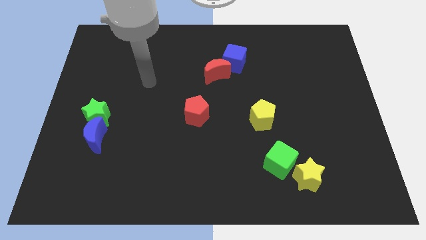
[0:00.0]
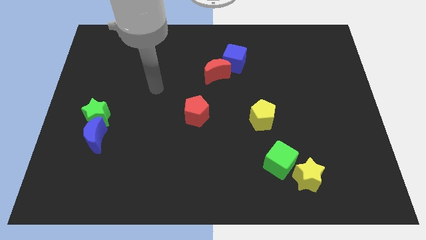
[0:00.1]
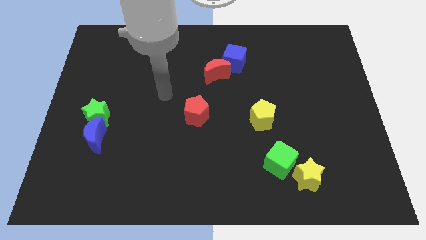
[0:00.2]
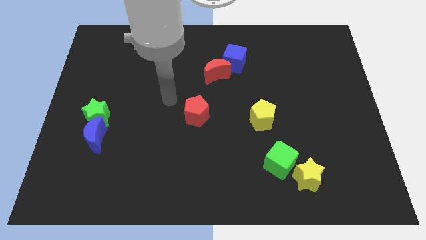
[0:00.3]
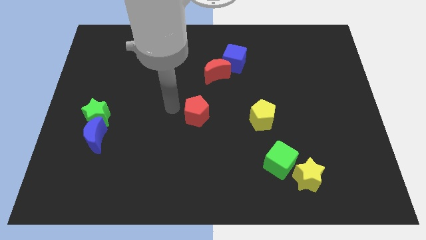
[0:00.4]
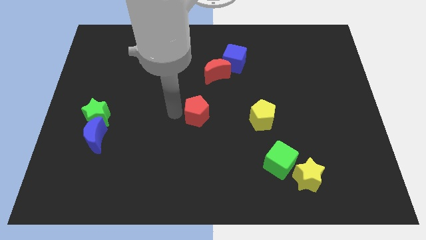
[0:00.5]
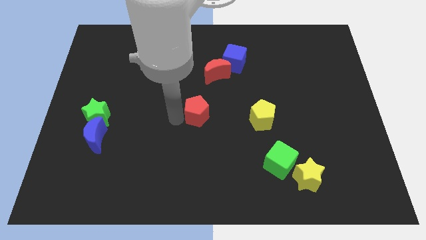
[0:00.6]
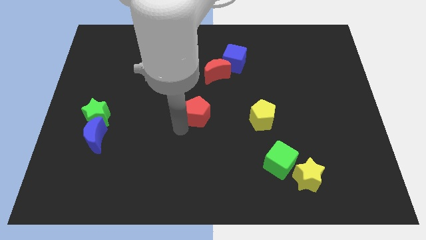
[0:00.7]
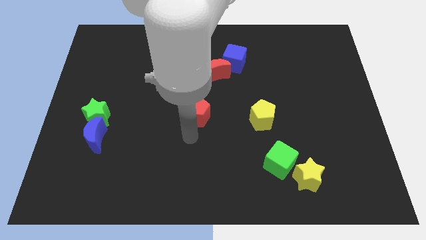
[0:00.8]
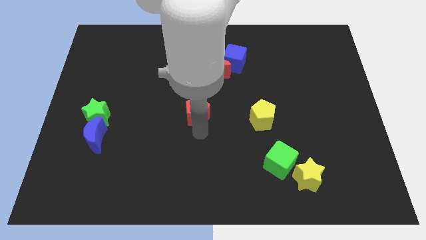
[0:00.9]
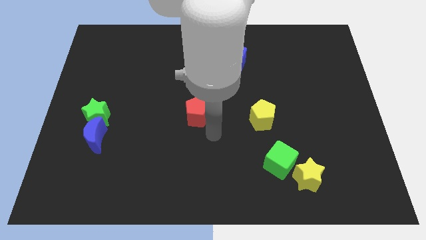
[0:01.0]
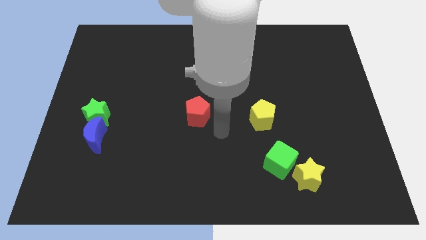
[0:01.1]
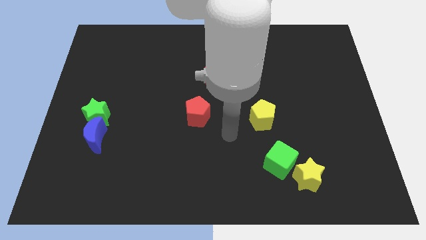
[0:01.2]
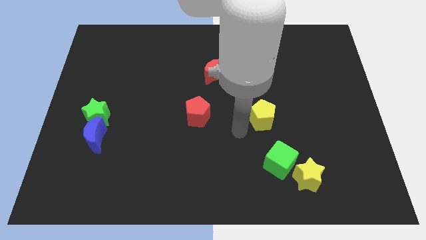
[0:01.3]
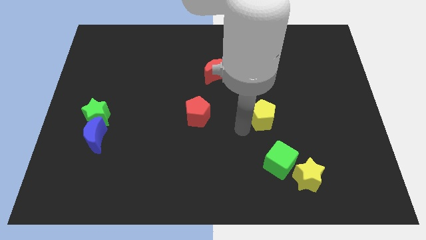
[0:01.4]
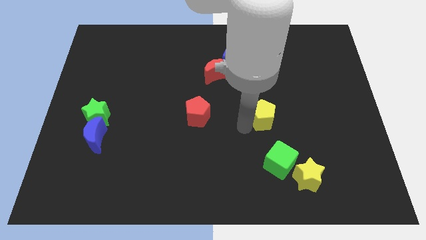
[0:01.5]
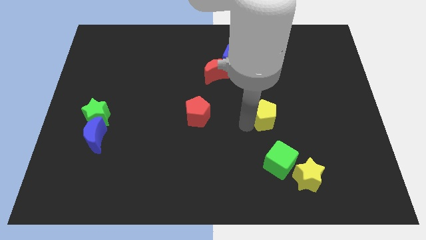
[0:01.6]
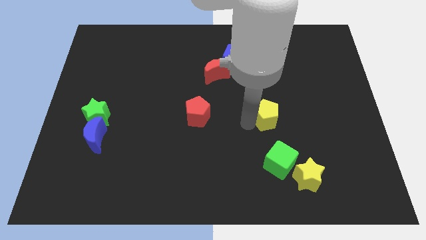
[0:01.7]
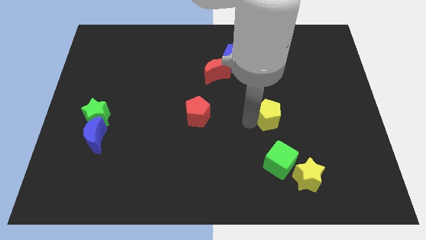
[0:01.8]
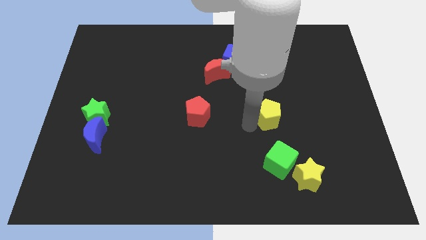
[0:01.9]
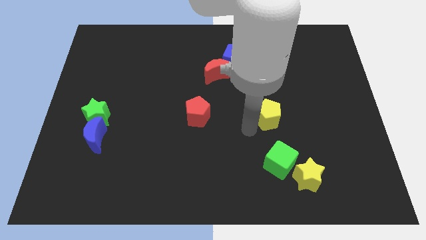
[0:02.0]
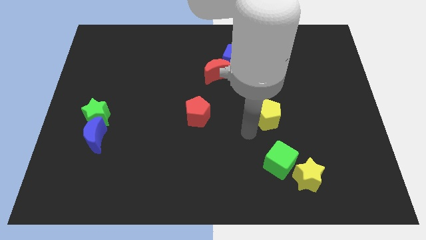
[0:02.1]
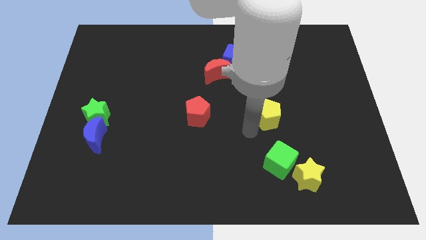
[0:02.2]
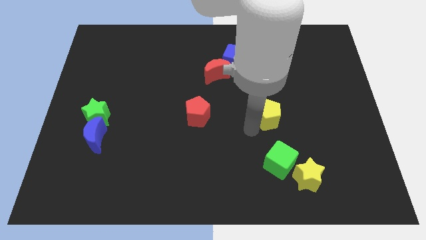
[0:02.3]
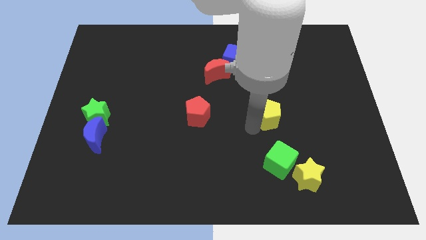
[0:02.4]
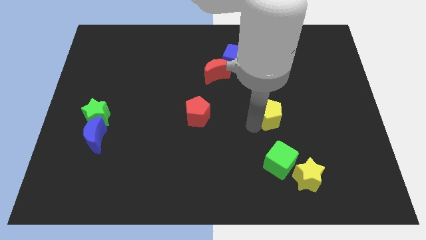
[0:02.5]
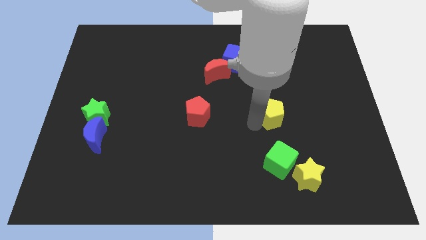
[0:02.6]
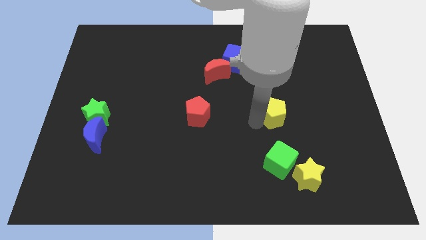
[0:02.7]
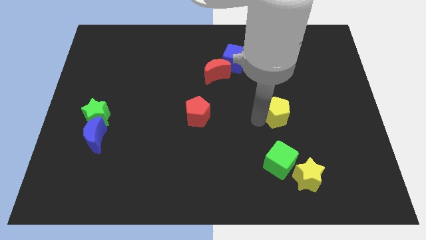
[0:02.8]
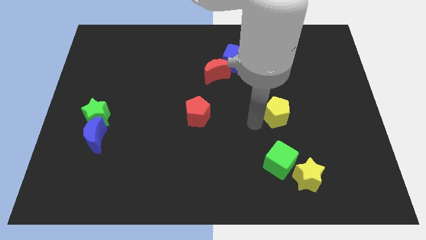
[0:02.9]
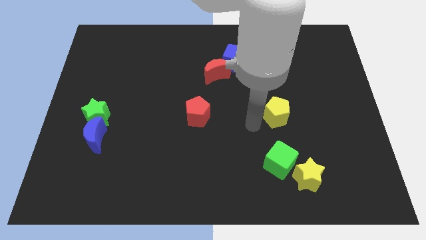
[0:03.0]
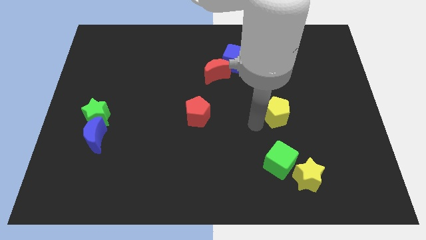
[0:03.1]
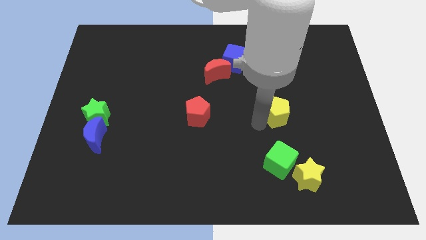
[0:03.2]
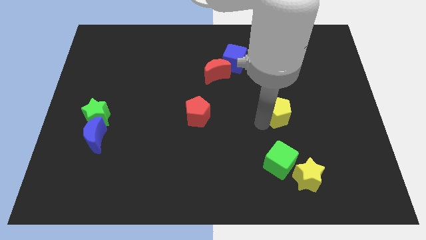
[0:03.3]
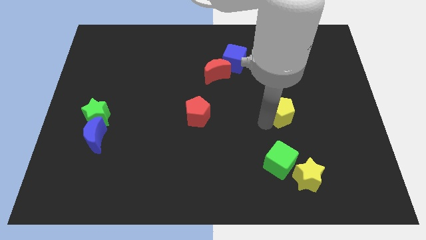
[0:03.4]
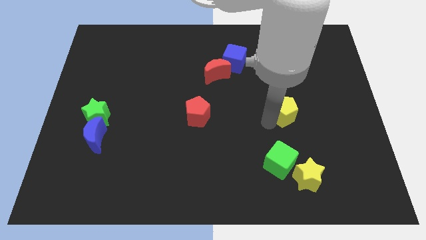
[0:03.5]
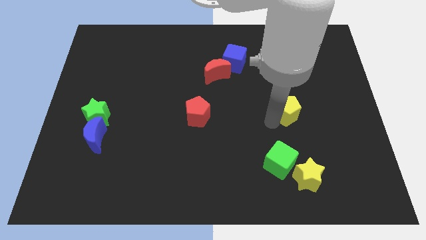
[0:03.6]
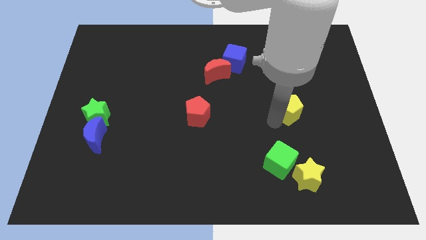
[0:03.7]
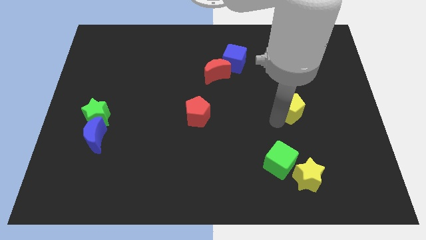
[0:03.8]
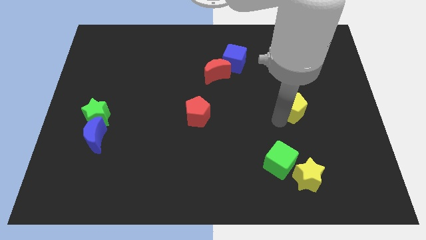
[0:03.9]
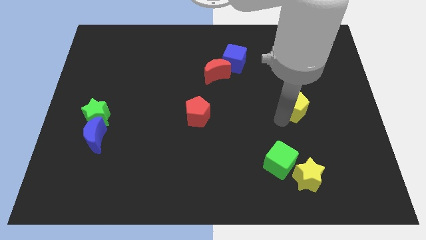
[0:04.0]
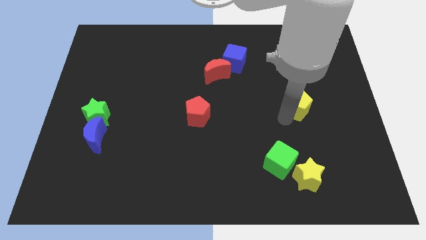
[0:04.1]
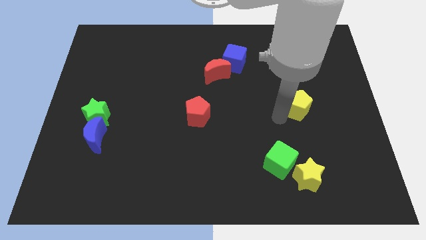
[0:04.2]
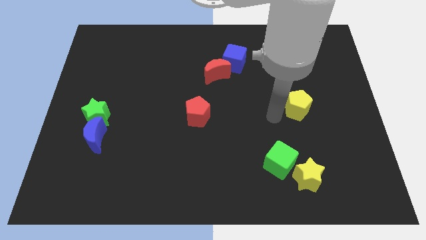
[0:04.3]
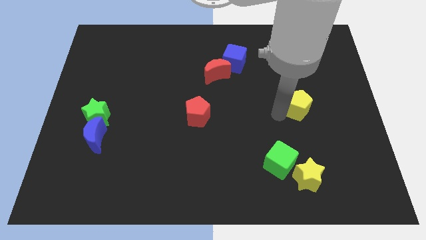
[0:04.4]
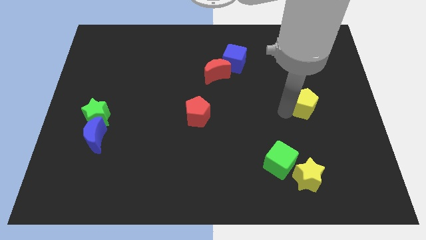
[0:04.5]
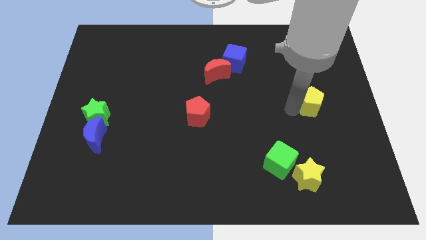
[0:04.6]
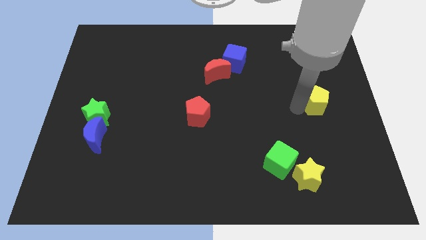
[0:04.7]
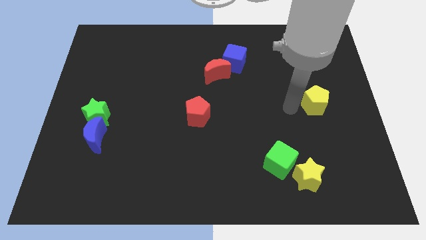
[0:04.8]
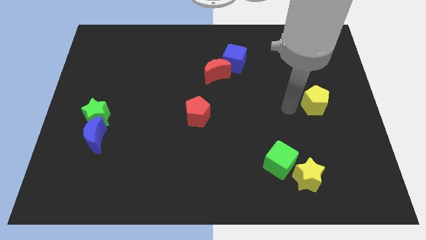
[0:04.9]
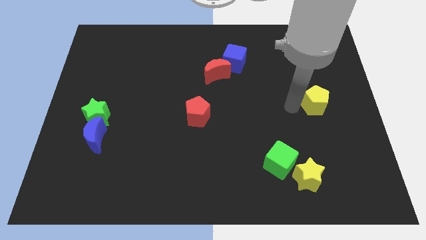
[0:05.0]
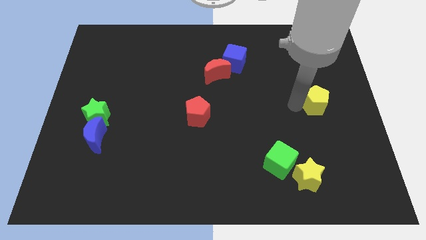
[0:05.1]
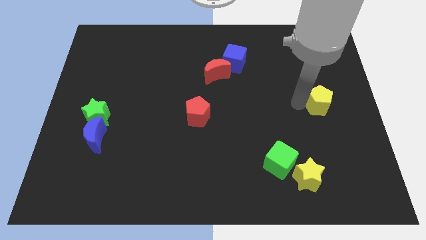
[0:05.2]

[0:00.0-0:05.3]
slide the yellow pentagon to the right side
